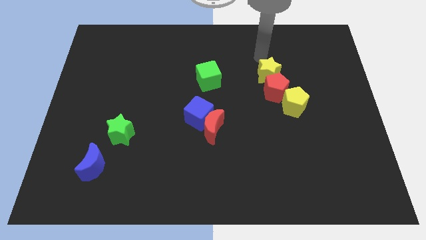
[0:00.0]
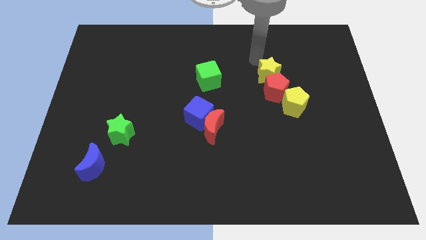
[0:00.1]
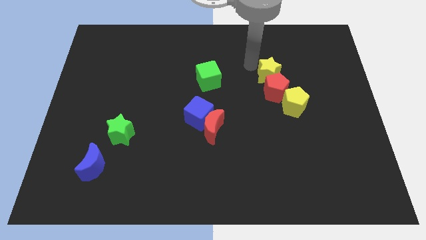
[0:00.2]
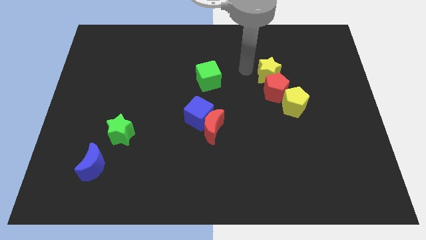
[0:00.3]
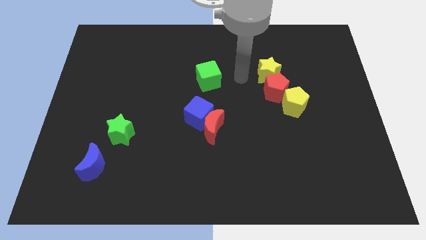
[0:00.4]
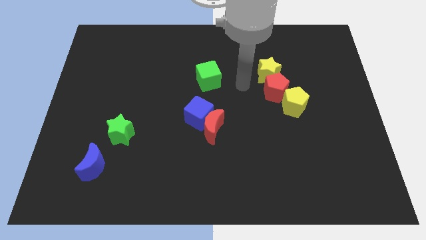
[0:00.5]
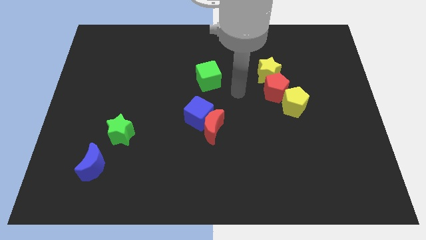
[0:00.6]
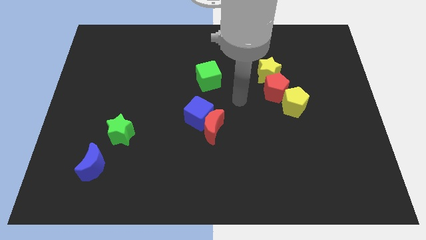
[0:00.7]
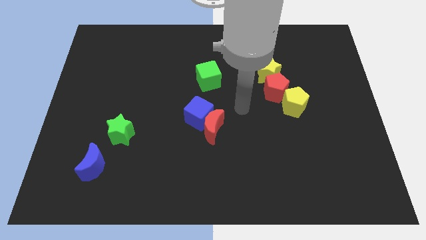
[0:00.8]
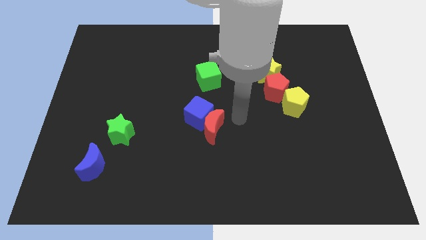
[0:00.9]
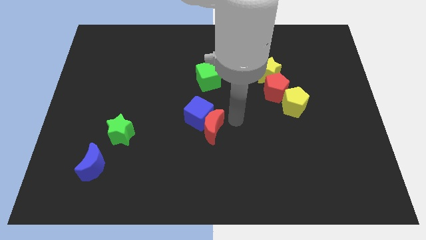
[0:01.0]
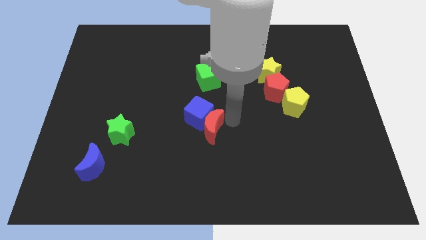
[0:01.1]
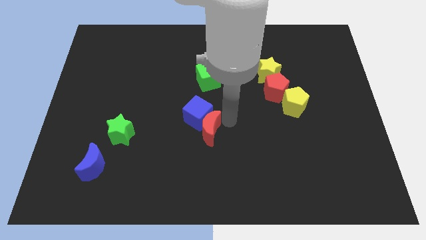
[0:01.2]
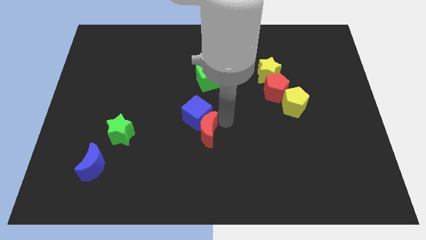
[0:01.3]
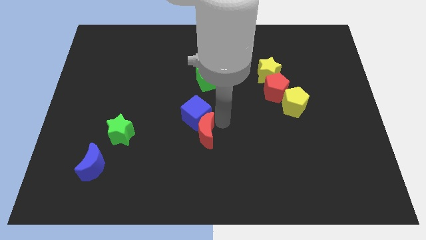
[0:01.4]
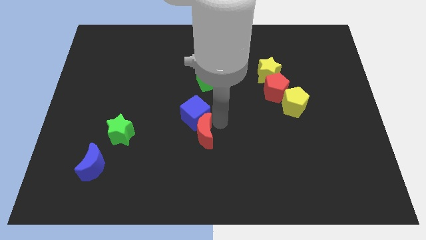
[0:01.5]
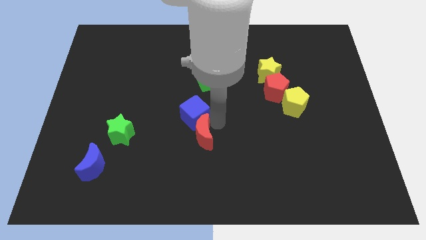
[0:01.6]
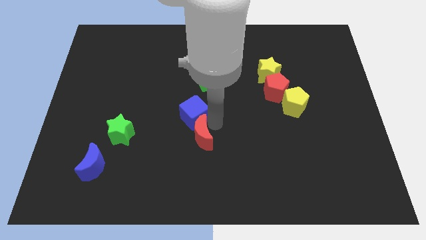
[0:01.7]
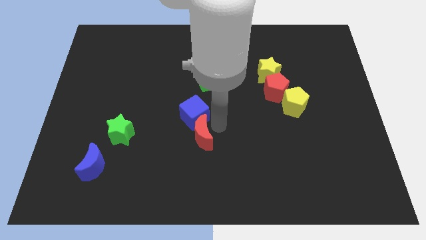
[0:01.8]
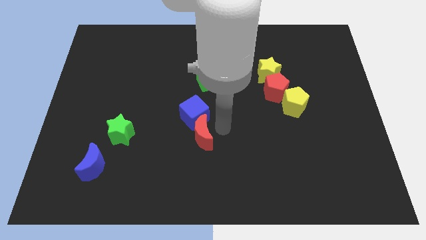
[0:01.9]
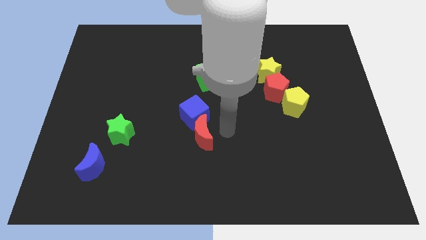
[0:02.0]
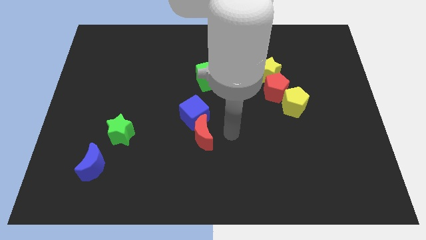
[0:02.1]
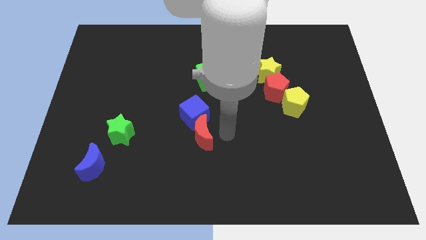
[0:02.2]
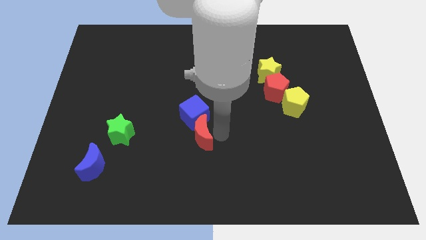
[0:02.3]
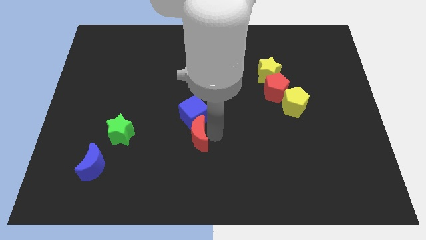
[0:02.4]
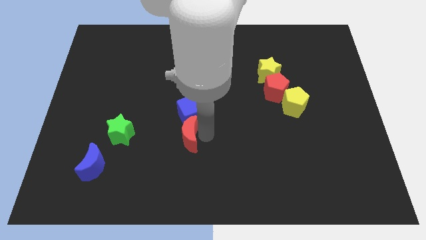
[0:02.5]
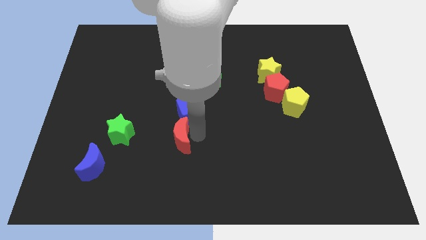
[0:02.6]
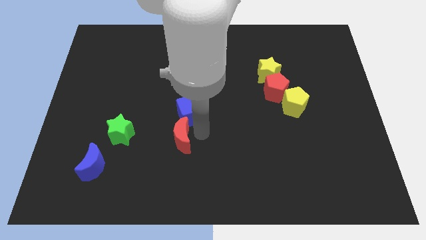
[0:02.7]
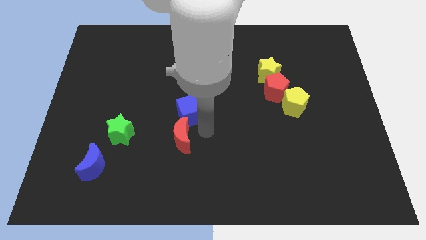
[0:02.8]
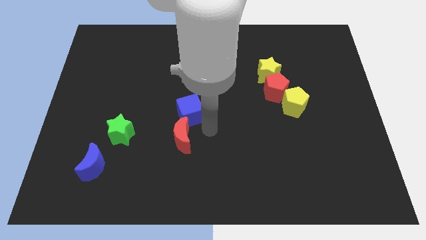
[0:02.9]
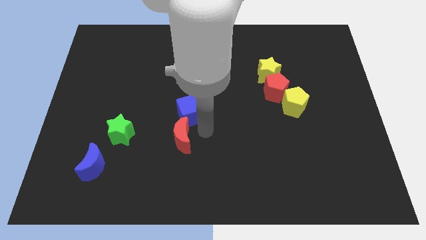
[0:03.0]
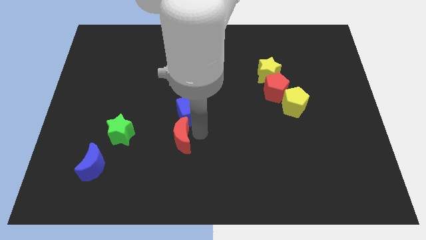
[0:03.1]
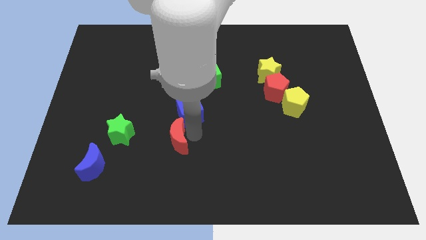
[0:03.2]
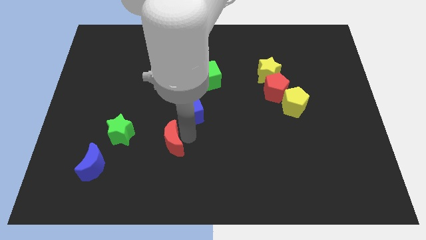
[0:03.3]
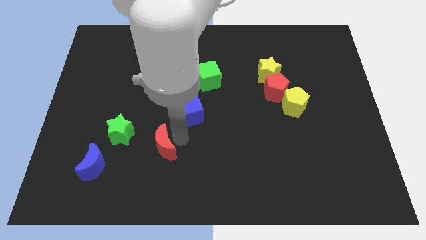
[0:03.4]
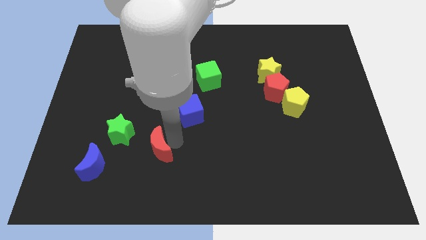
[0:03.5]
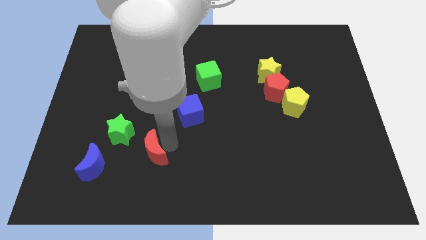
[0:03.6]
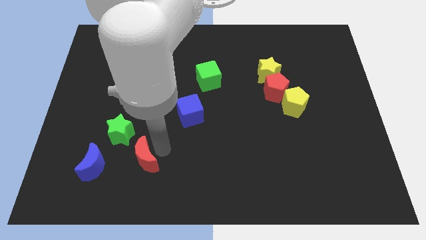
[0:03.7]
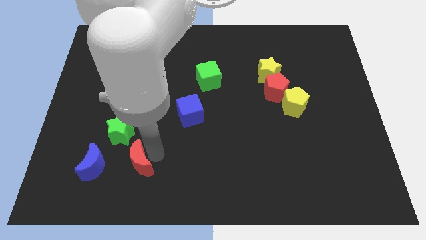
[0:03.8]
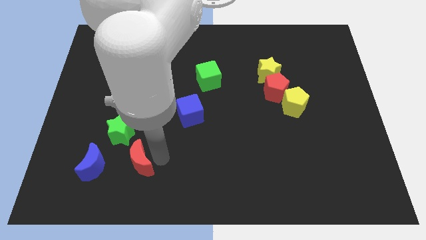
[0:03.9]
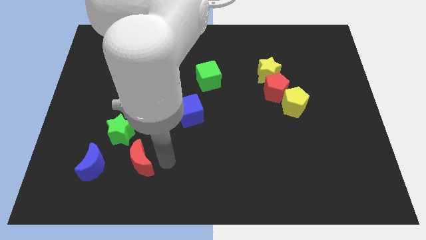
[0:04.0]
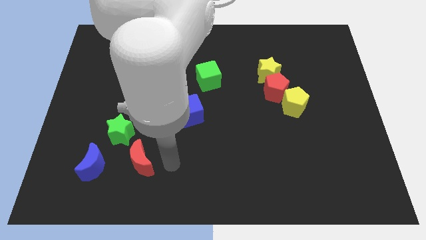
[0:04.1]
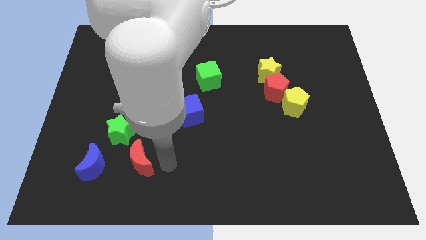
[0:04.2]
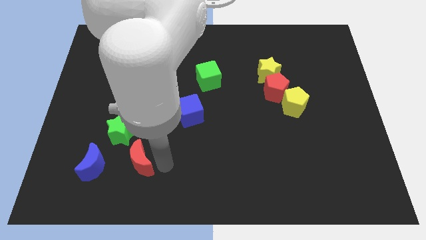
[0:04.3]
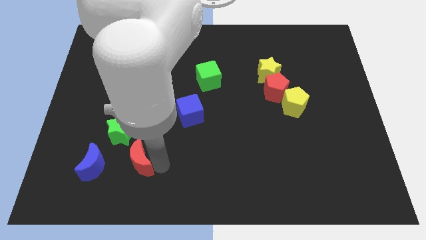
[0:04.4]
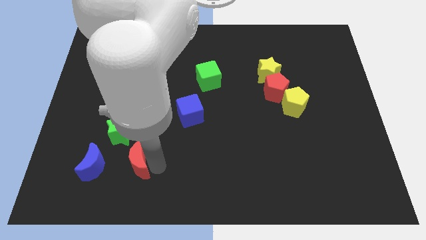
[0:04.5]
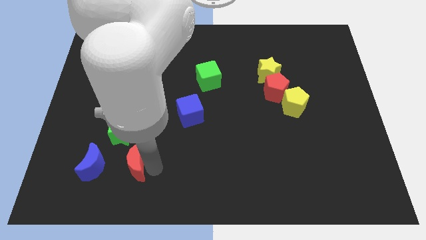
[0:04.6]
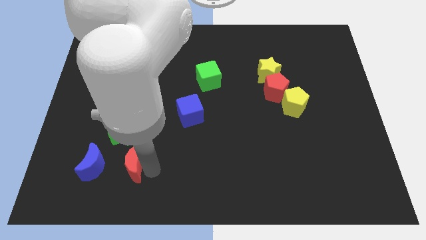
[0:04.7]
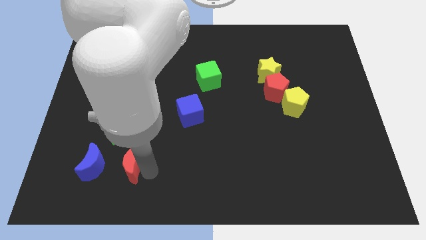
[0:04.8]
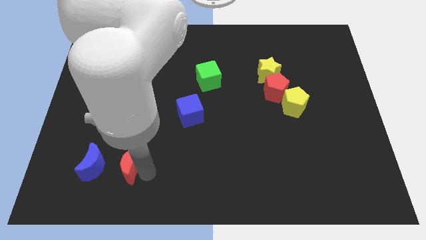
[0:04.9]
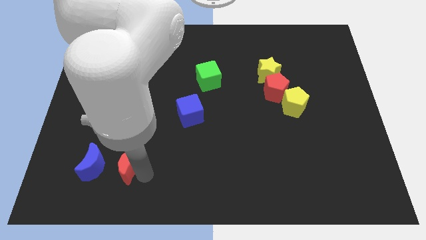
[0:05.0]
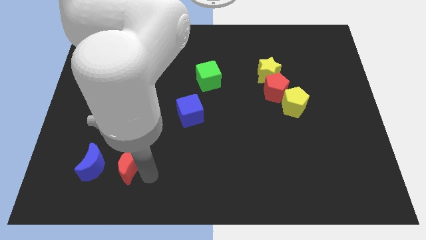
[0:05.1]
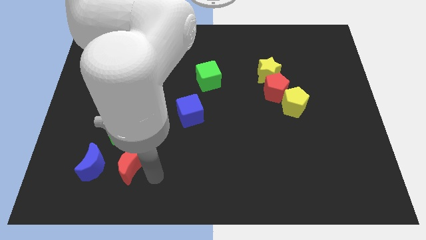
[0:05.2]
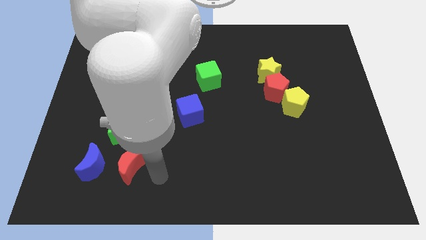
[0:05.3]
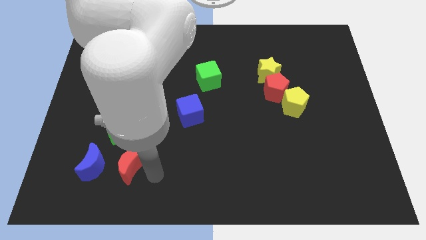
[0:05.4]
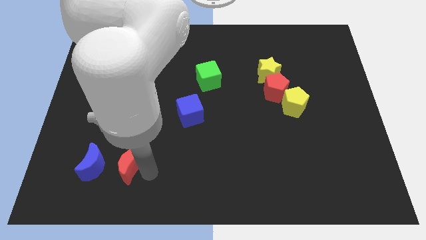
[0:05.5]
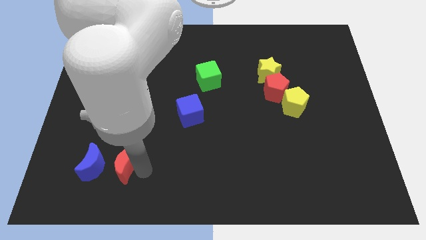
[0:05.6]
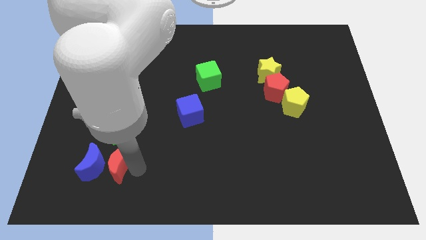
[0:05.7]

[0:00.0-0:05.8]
put the red moon towards the blue moon

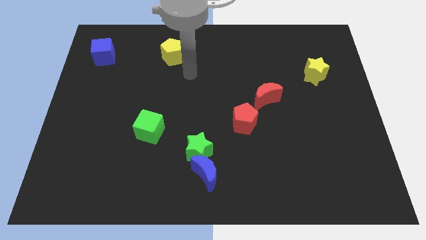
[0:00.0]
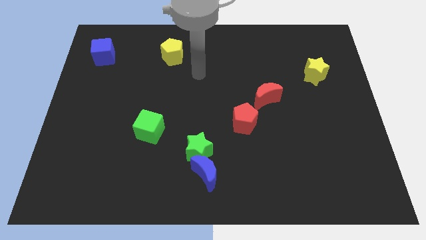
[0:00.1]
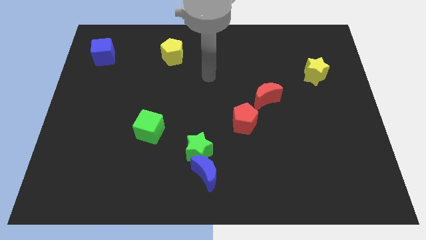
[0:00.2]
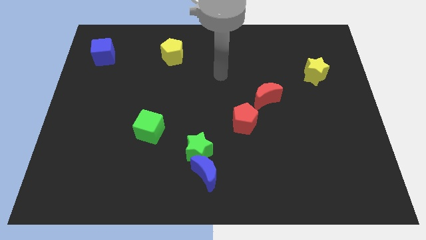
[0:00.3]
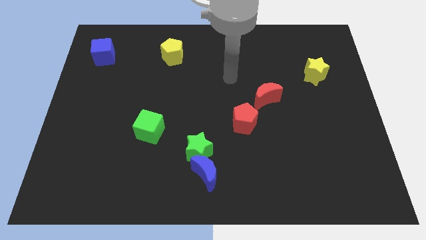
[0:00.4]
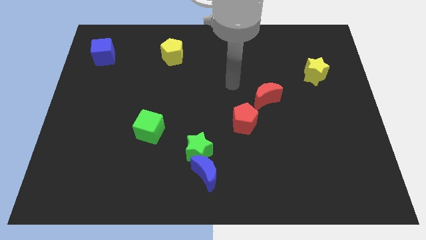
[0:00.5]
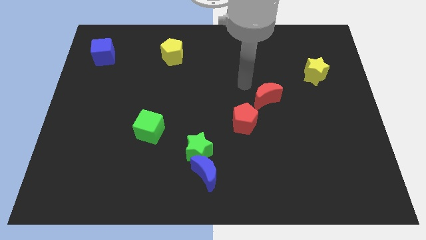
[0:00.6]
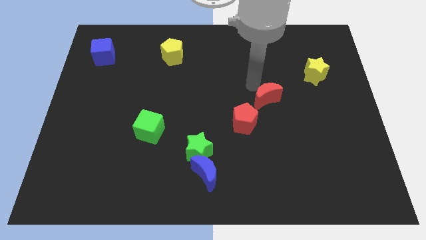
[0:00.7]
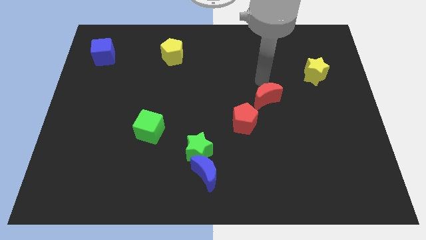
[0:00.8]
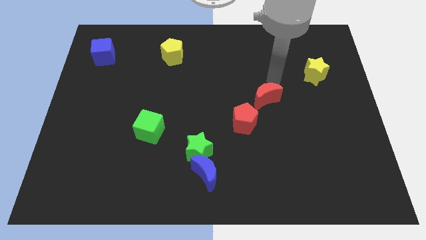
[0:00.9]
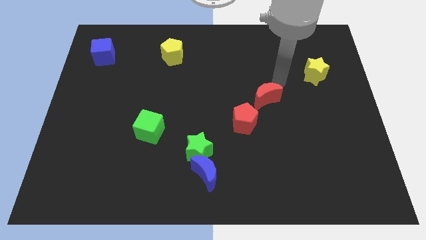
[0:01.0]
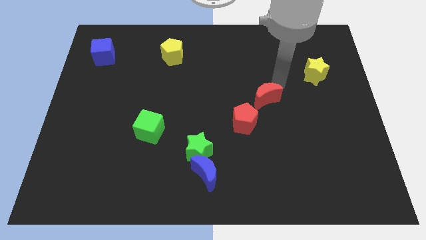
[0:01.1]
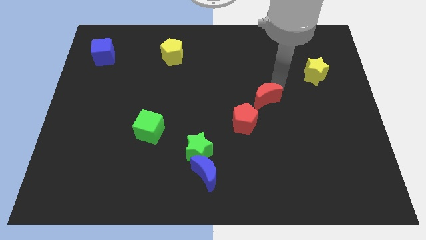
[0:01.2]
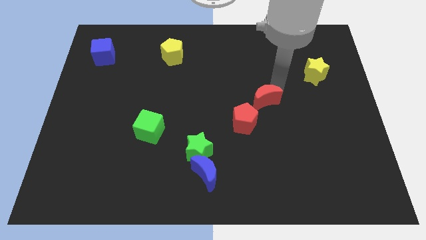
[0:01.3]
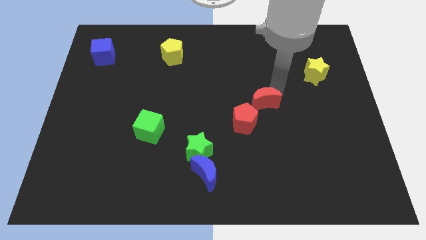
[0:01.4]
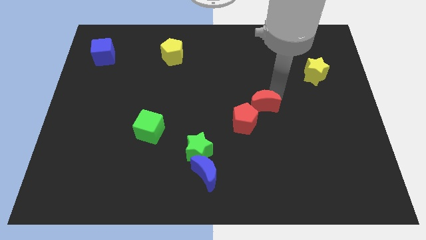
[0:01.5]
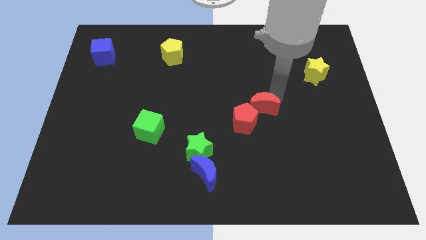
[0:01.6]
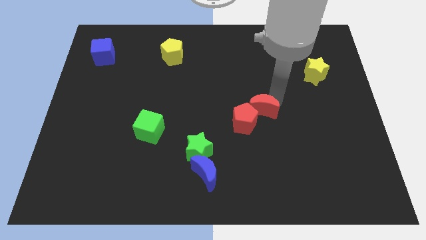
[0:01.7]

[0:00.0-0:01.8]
put the red moon towards the red pentagon
